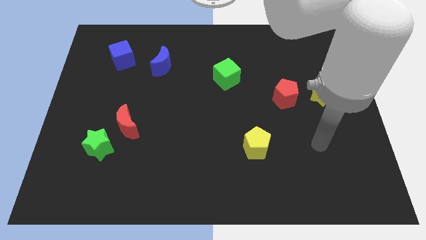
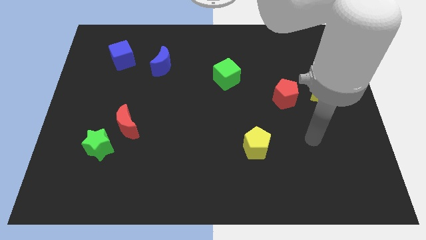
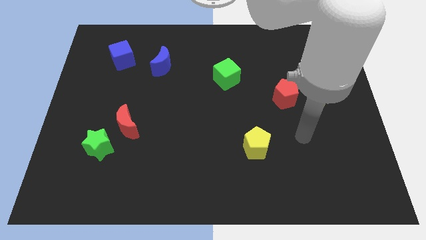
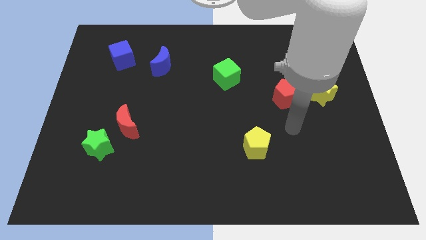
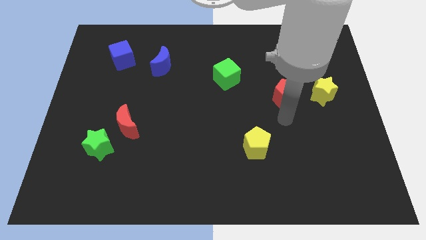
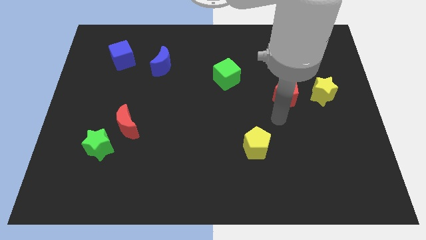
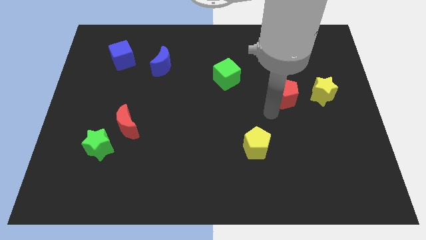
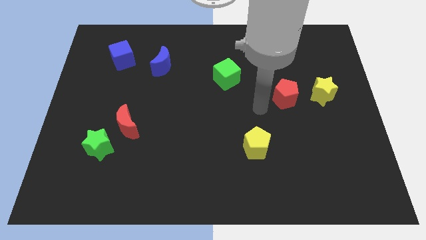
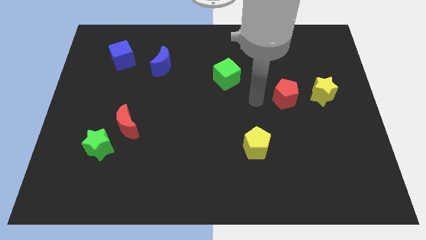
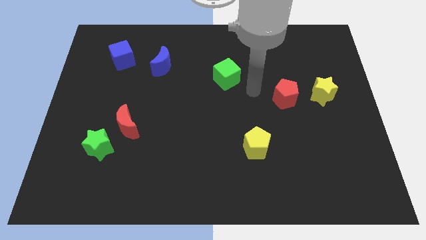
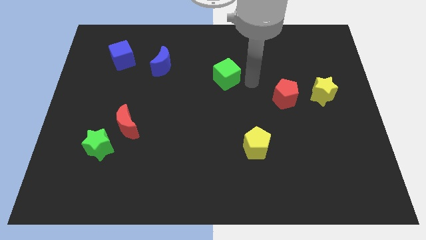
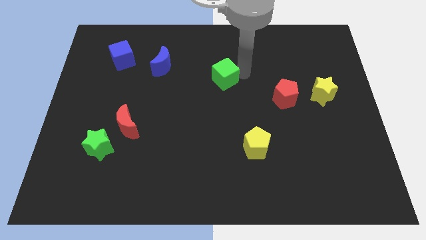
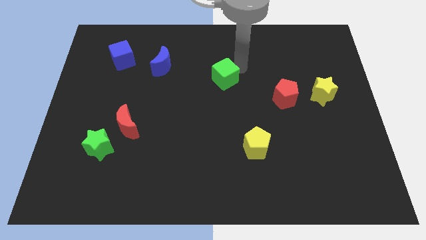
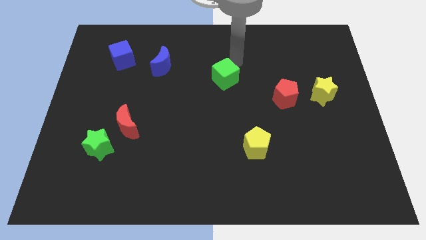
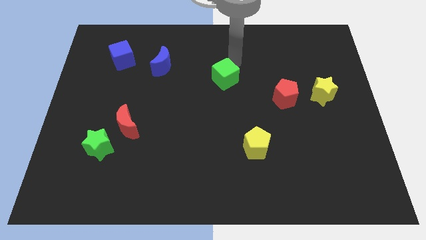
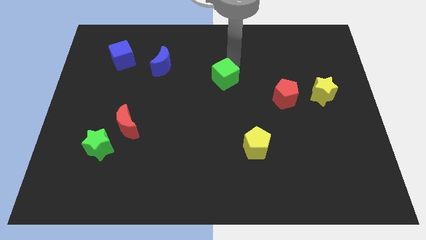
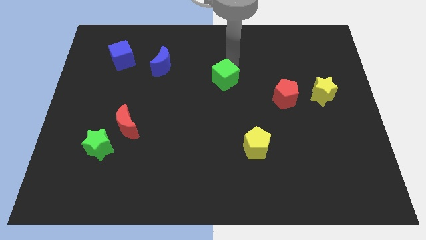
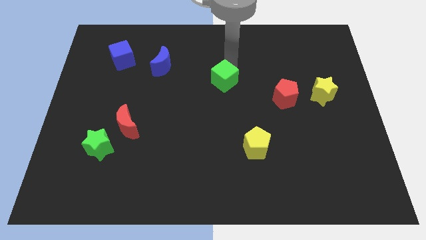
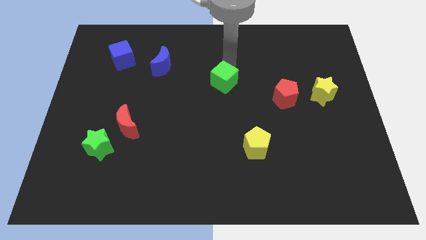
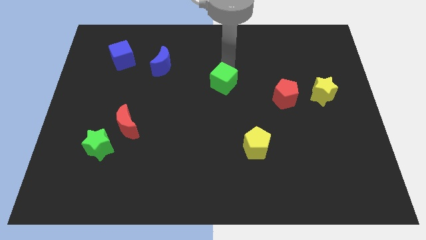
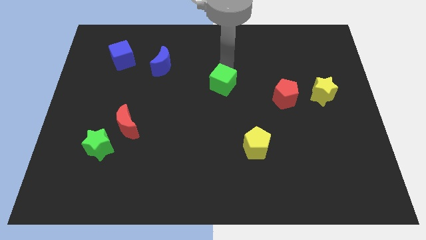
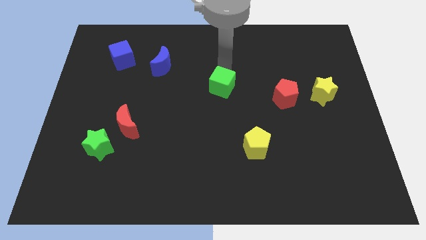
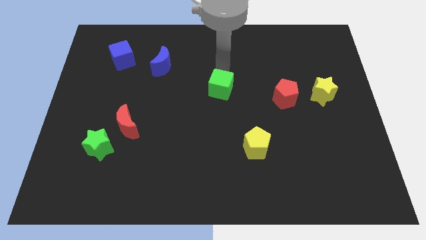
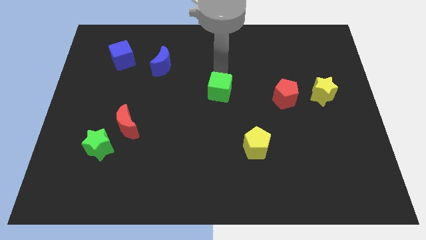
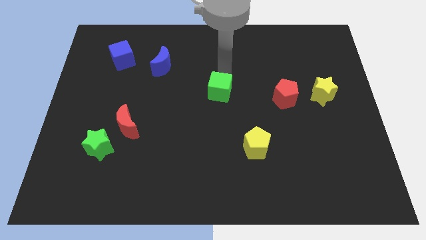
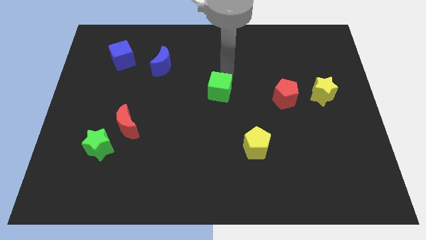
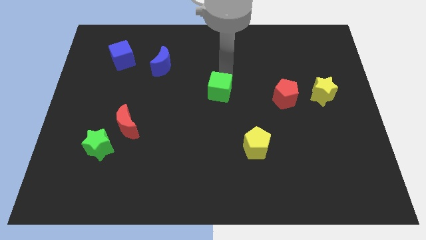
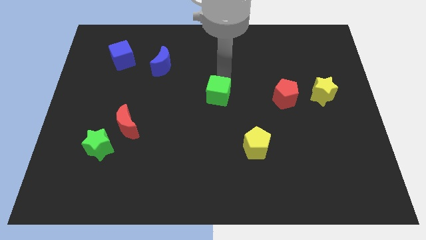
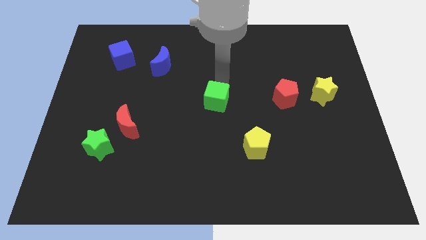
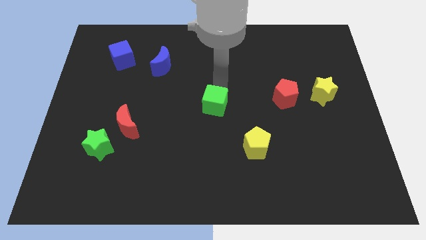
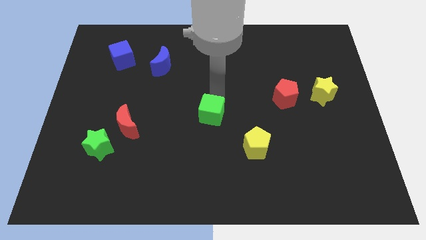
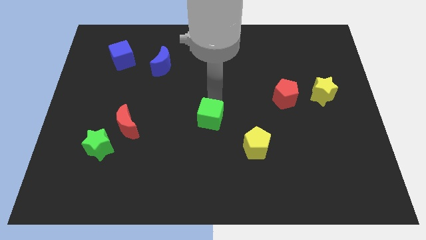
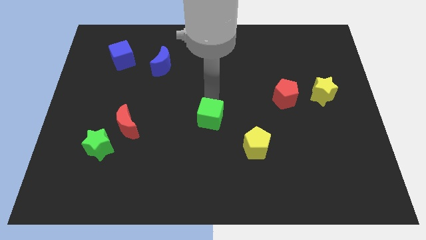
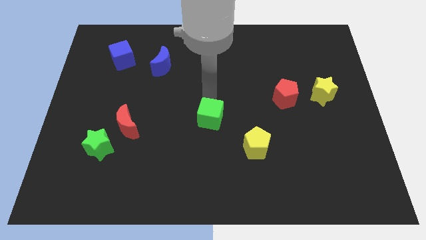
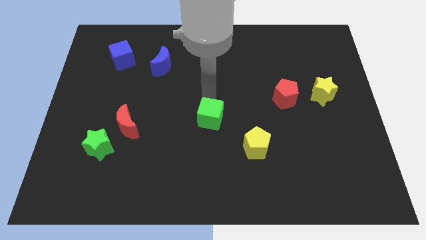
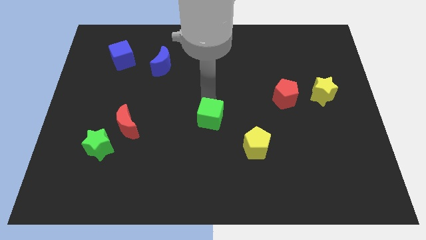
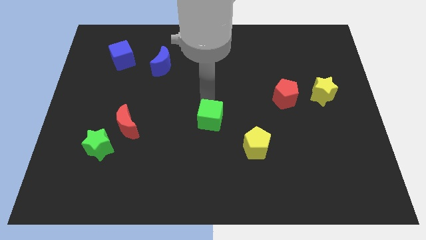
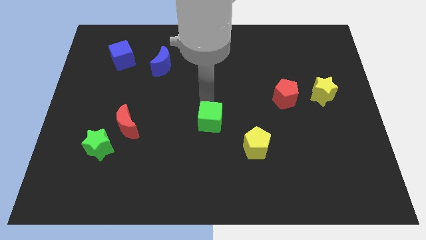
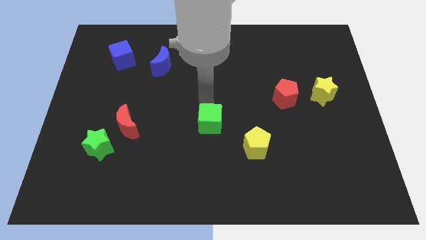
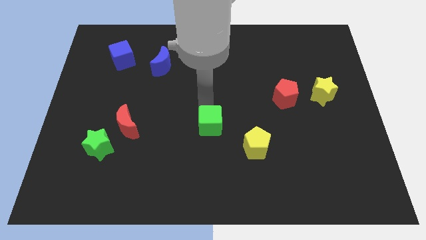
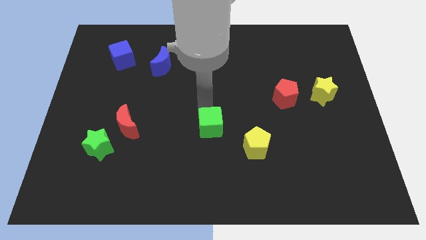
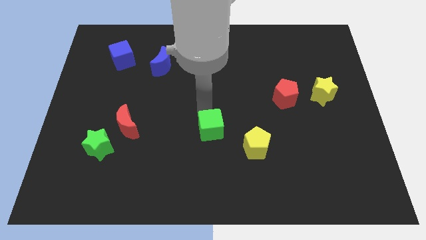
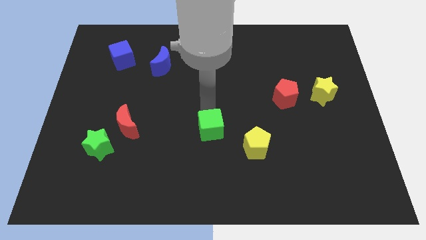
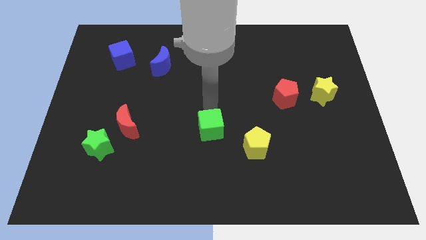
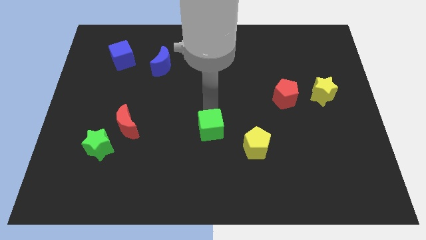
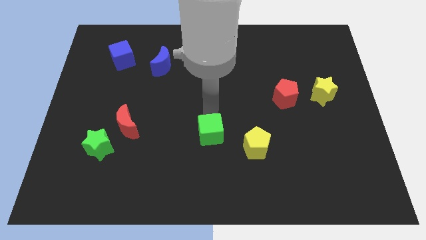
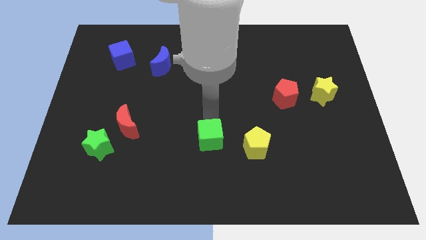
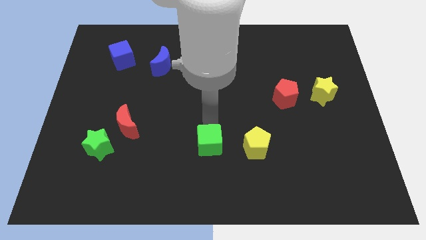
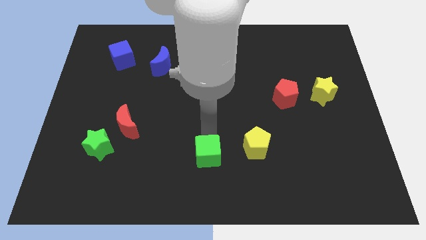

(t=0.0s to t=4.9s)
push the green cube to the bottom side

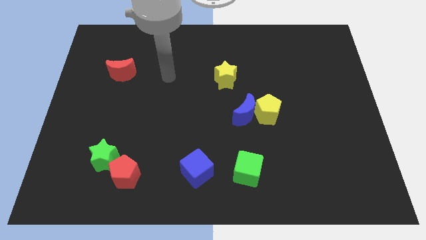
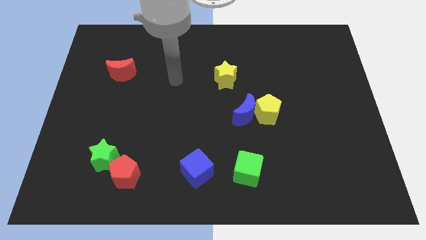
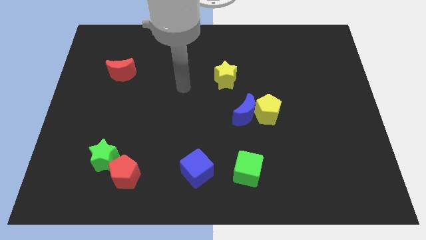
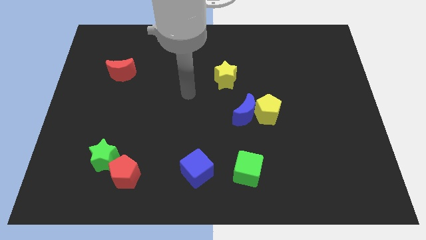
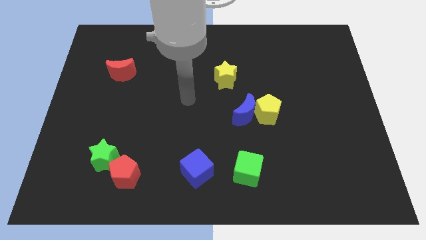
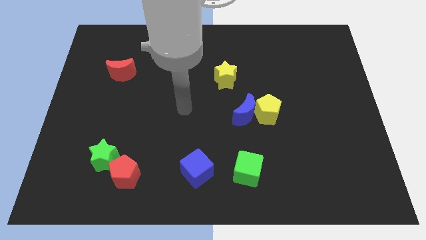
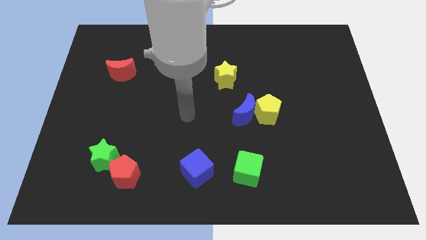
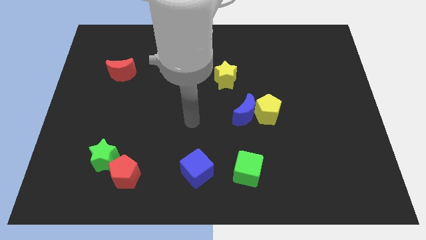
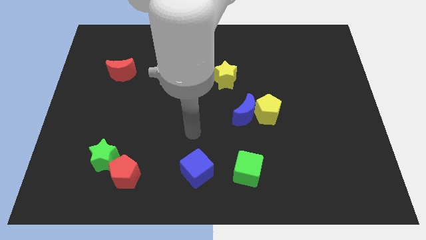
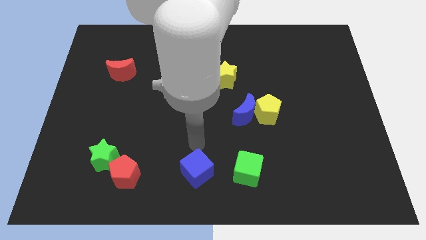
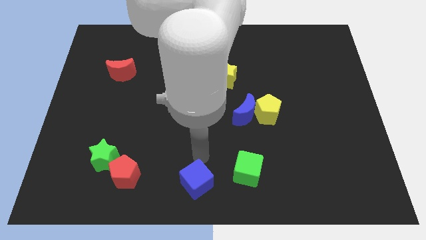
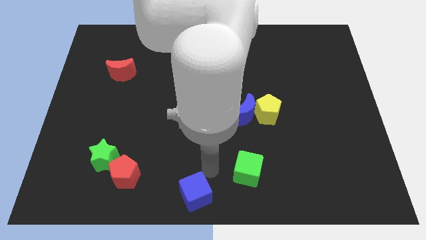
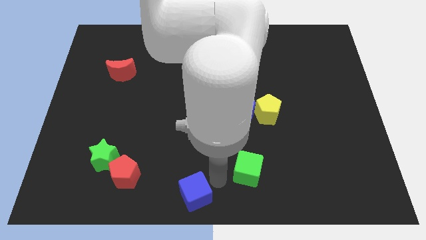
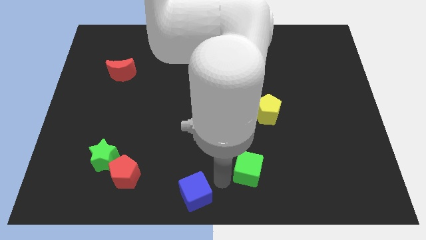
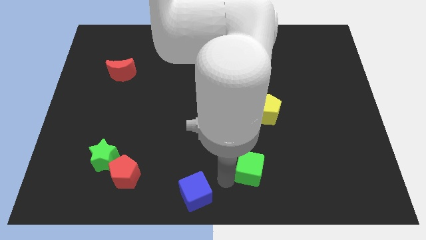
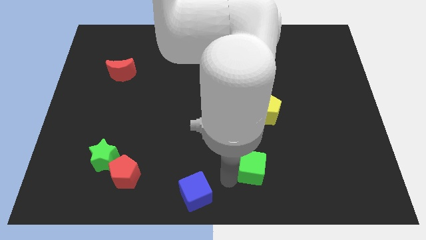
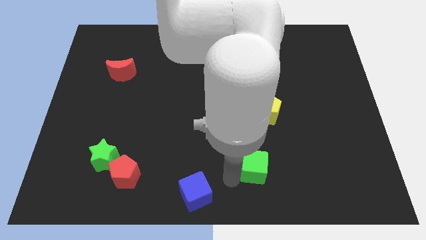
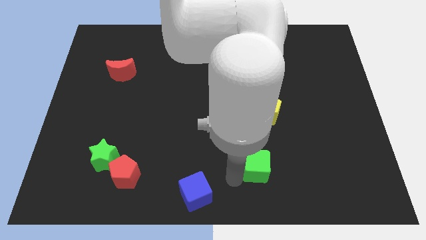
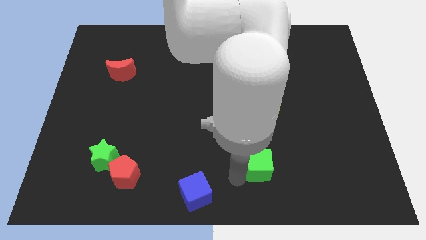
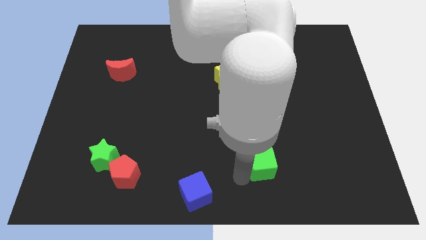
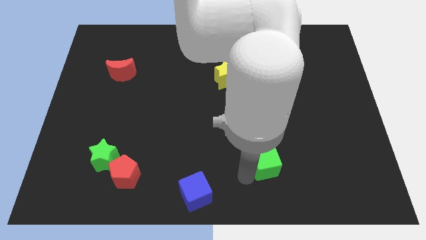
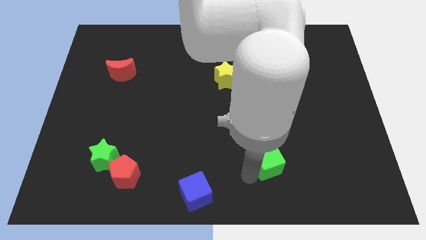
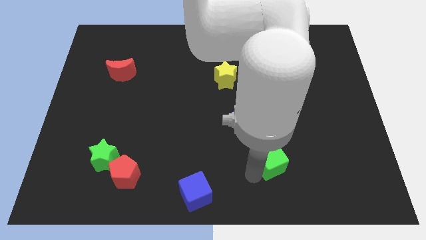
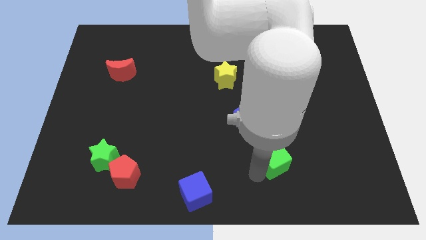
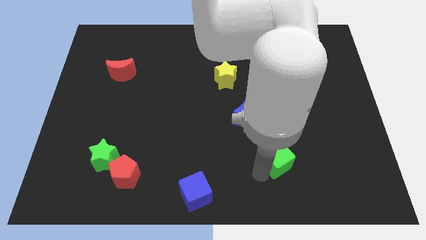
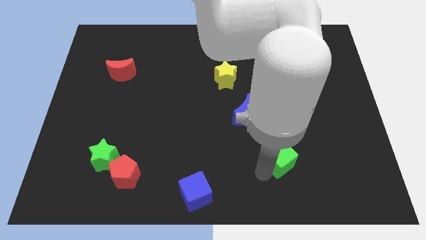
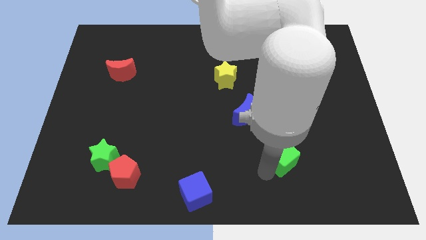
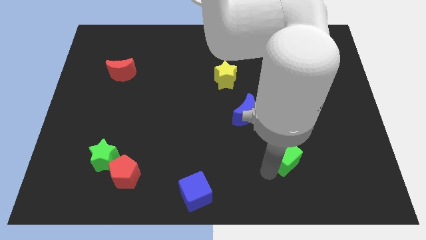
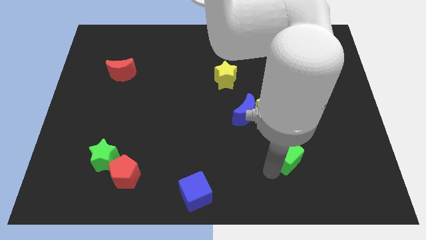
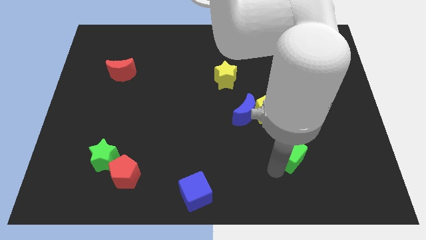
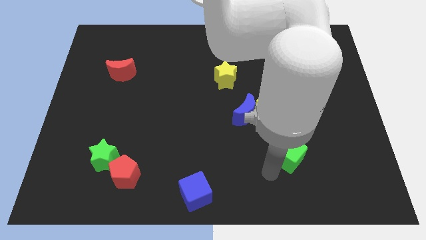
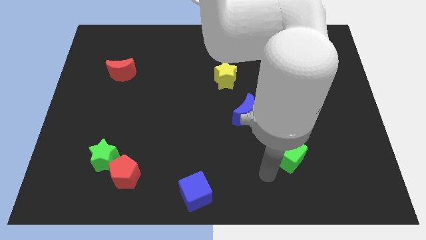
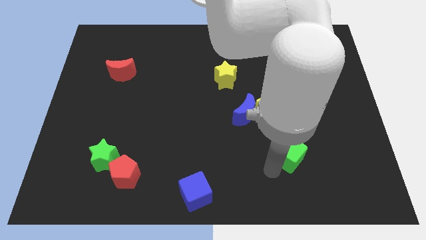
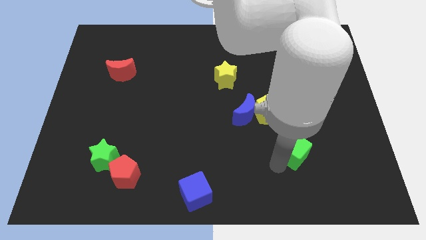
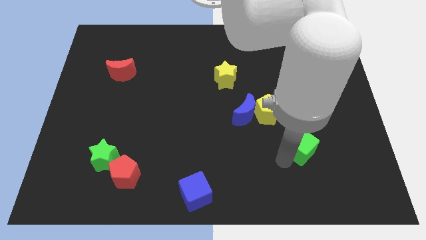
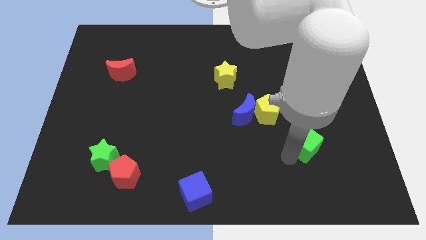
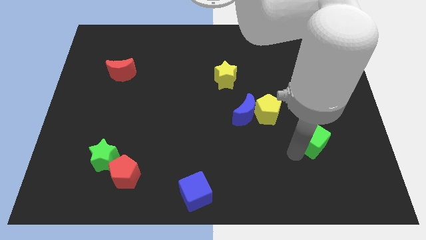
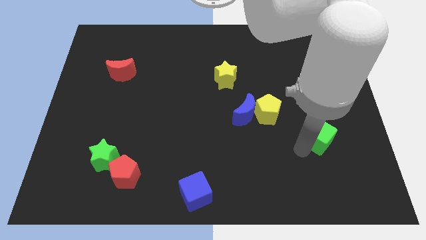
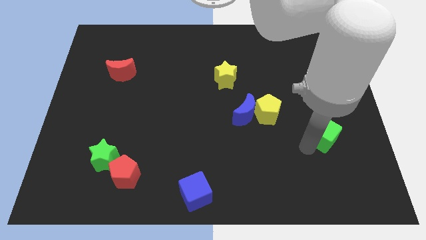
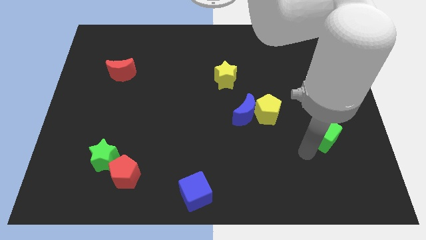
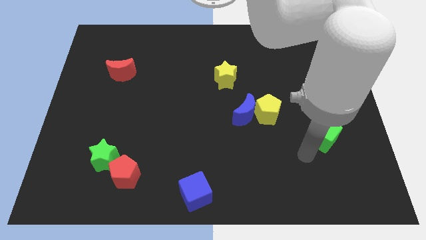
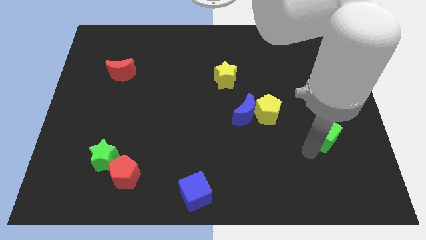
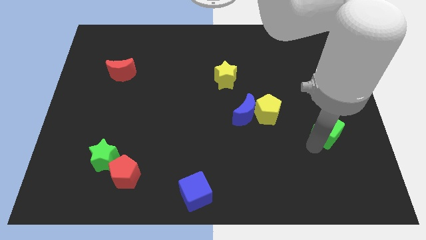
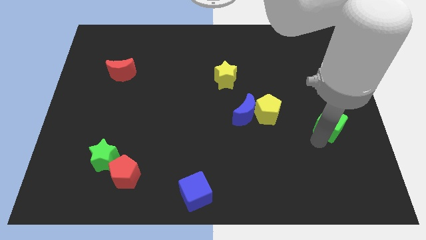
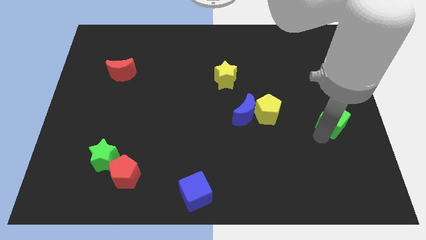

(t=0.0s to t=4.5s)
put the green cube to the right side
